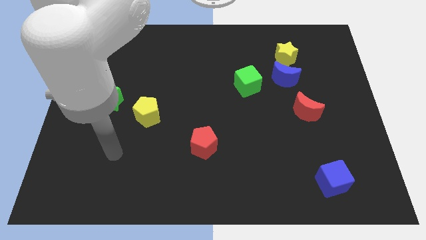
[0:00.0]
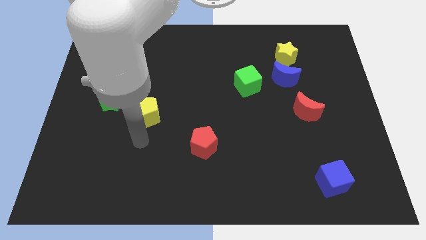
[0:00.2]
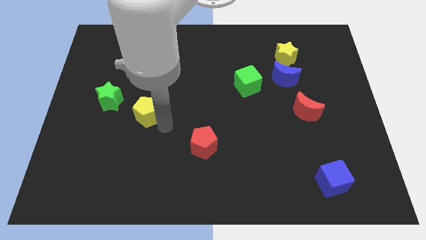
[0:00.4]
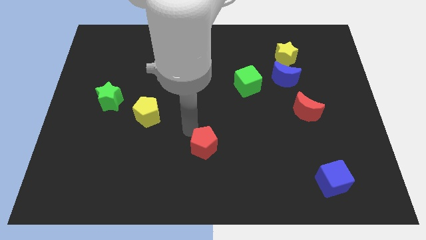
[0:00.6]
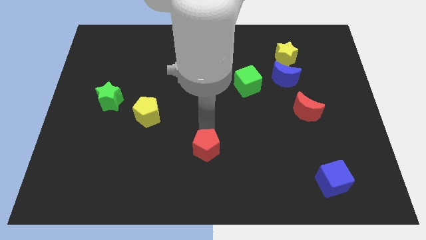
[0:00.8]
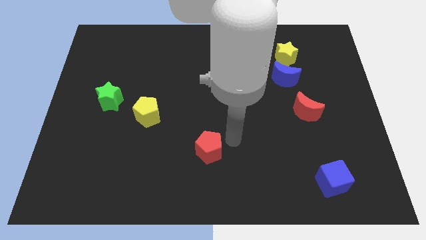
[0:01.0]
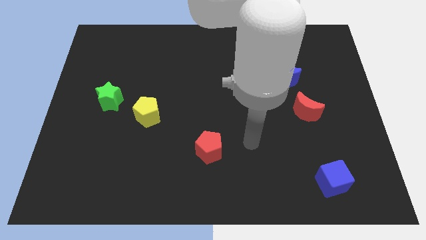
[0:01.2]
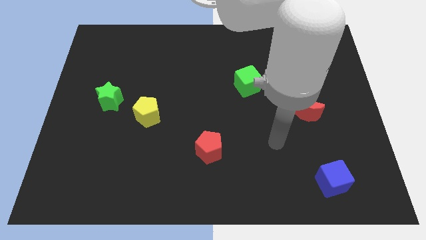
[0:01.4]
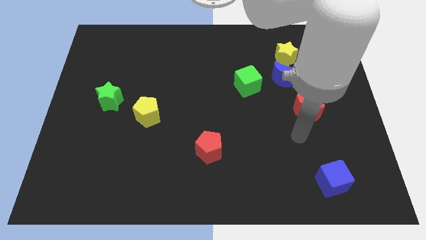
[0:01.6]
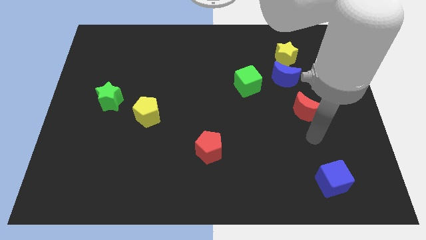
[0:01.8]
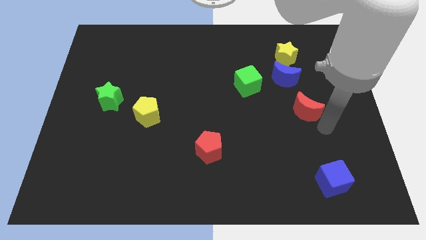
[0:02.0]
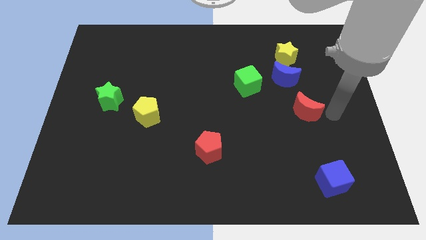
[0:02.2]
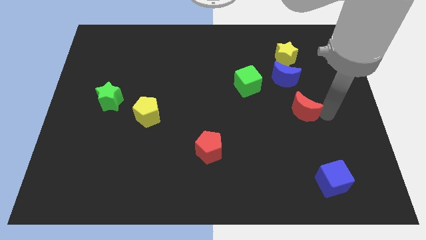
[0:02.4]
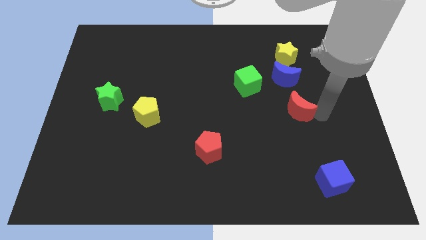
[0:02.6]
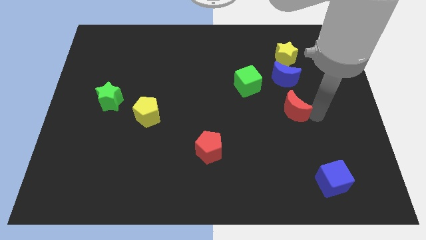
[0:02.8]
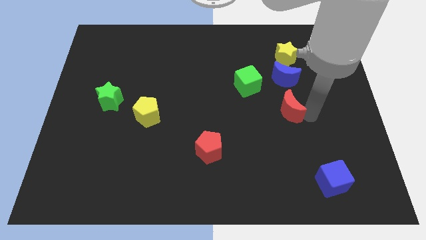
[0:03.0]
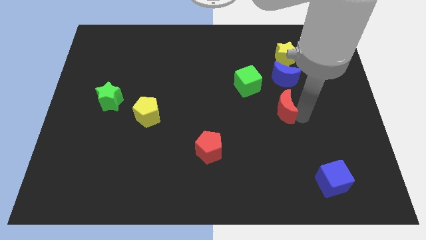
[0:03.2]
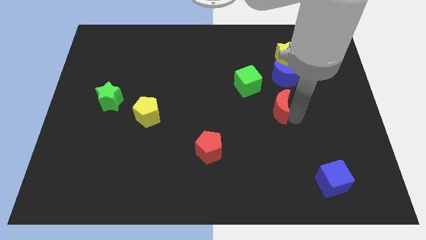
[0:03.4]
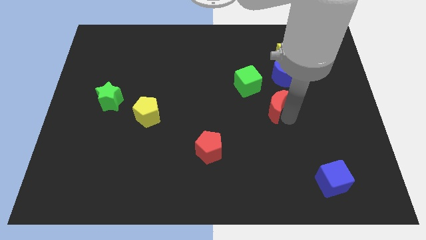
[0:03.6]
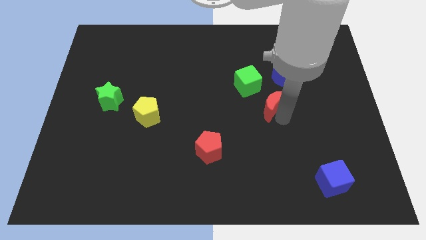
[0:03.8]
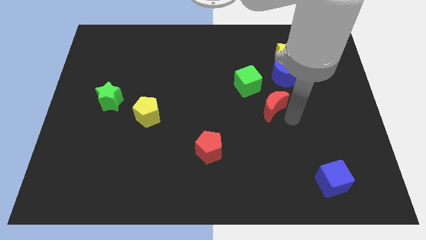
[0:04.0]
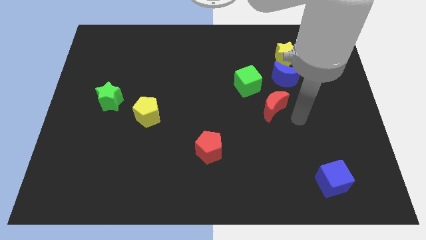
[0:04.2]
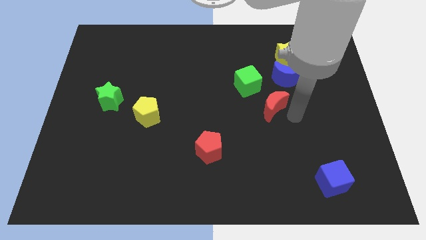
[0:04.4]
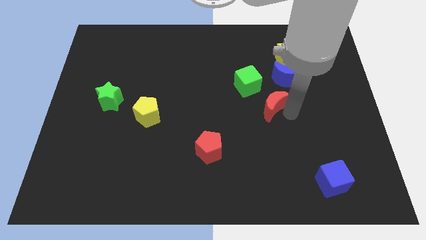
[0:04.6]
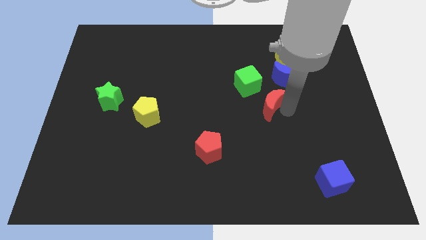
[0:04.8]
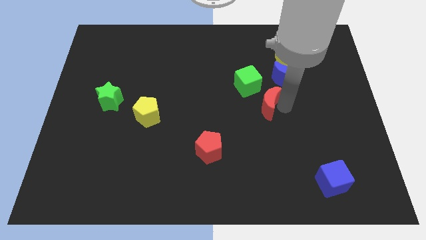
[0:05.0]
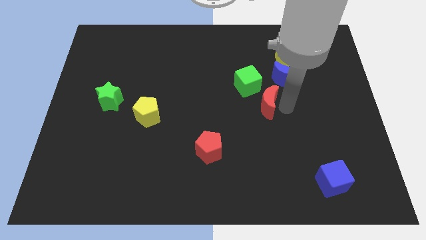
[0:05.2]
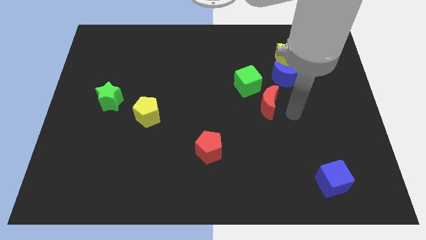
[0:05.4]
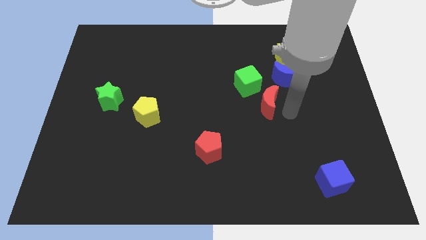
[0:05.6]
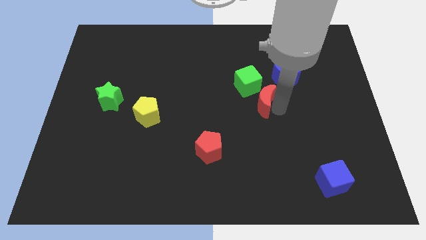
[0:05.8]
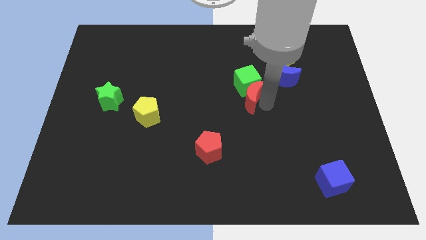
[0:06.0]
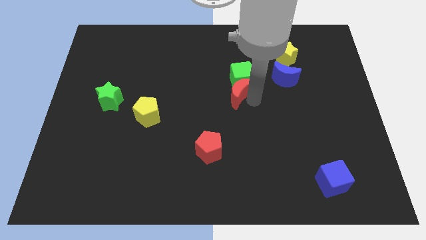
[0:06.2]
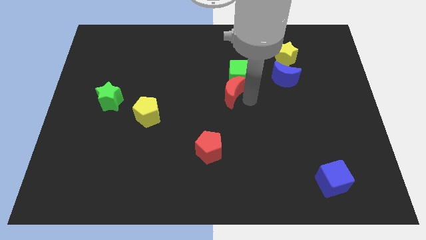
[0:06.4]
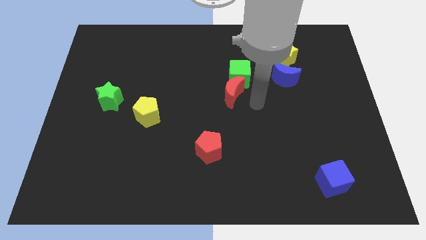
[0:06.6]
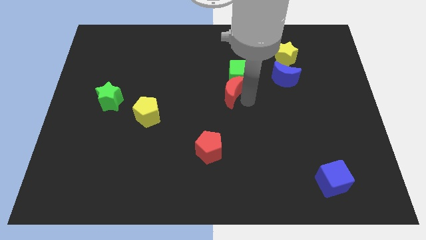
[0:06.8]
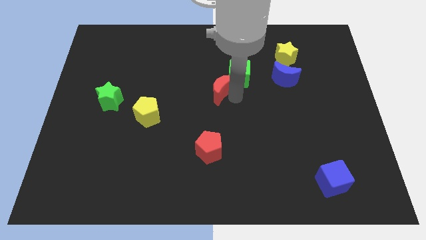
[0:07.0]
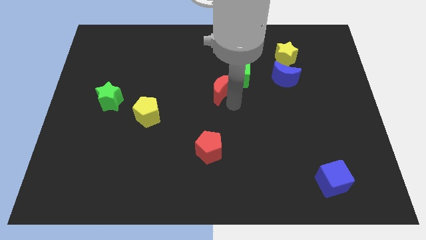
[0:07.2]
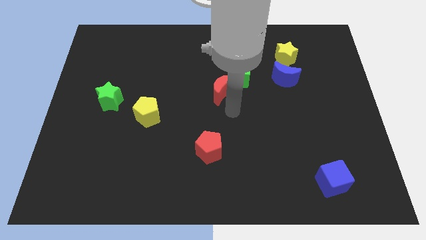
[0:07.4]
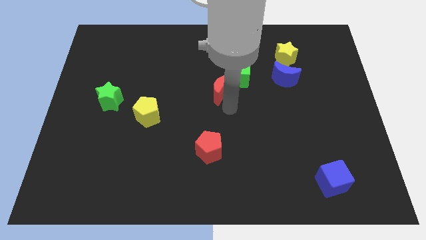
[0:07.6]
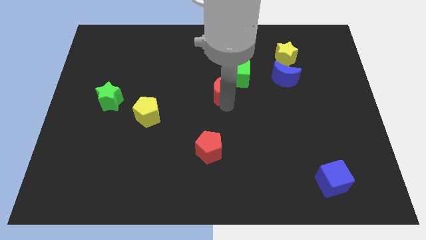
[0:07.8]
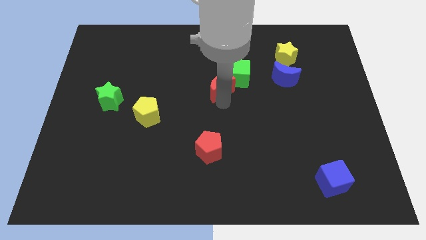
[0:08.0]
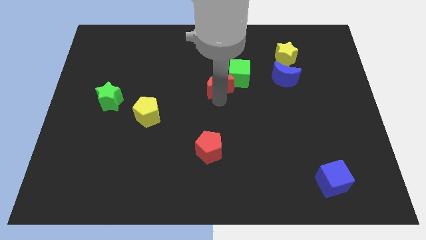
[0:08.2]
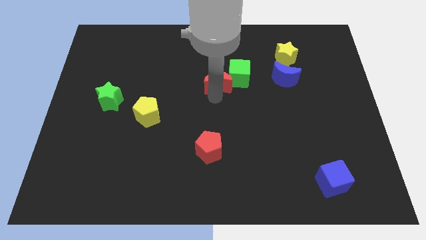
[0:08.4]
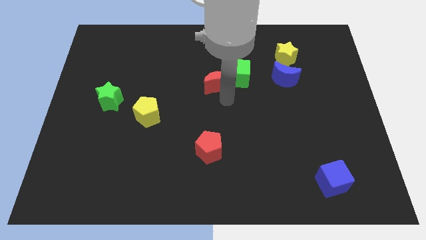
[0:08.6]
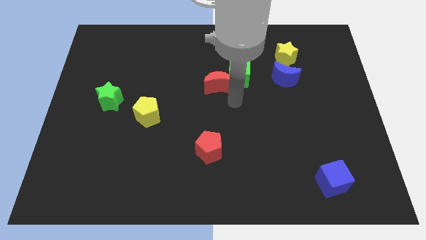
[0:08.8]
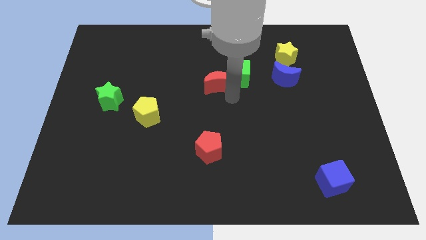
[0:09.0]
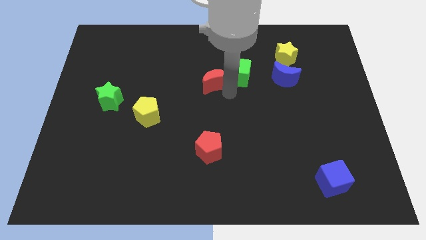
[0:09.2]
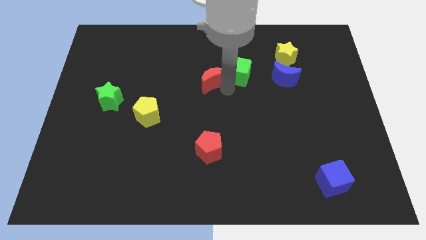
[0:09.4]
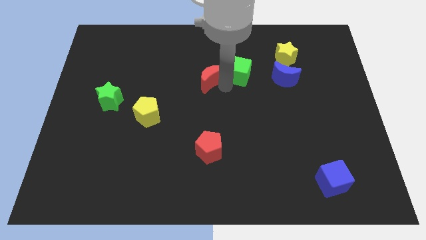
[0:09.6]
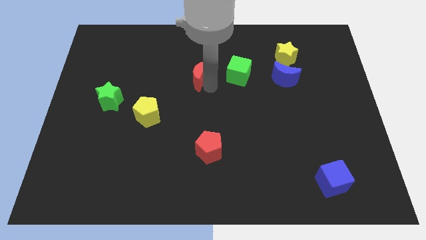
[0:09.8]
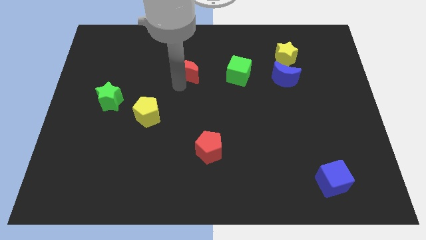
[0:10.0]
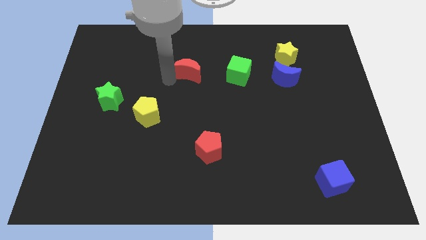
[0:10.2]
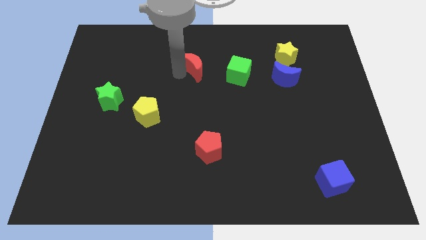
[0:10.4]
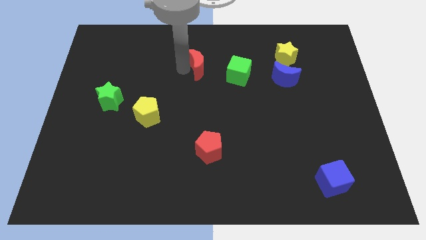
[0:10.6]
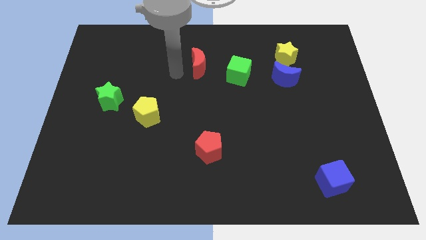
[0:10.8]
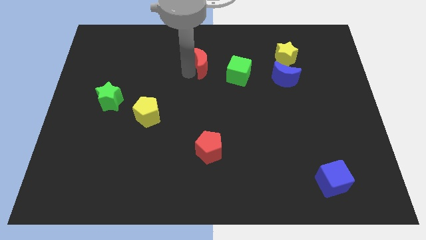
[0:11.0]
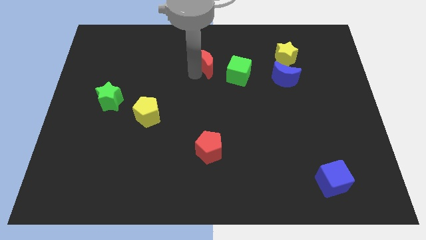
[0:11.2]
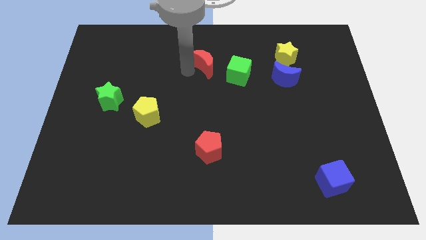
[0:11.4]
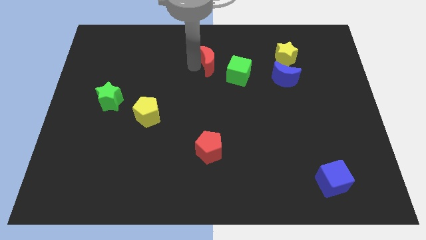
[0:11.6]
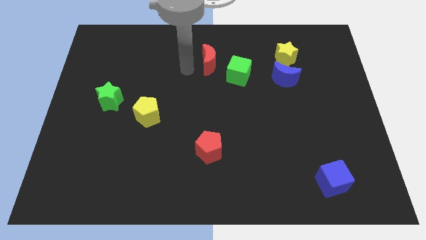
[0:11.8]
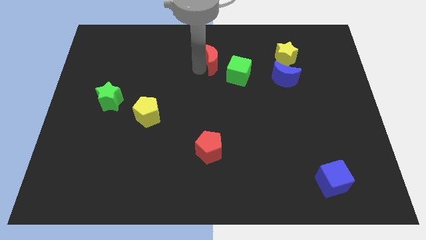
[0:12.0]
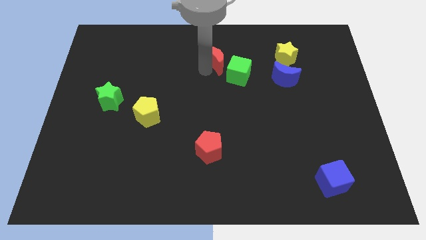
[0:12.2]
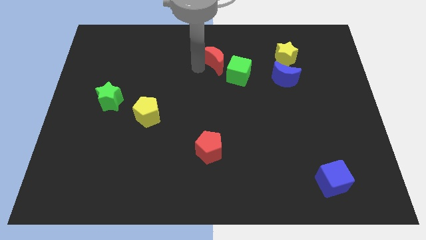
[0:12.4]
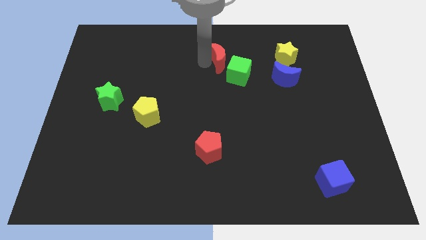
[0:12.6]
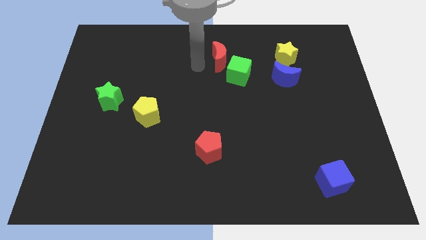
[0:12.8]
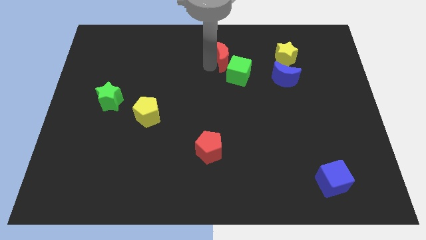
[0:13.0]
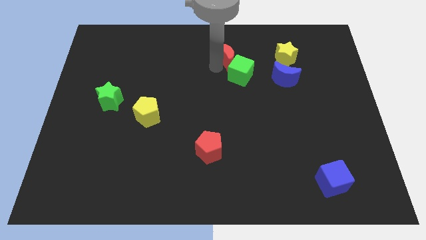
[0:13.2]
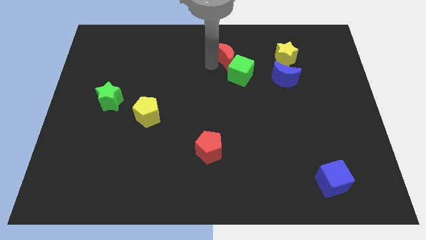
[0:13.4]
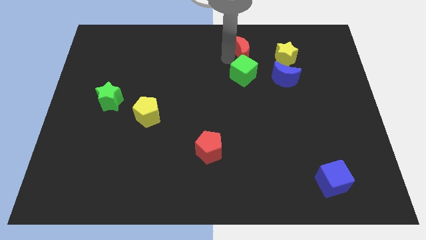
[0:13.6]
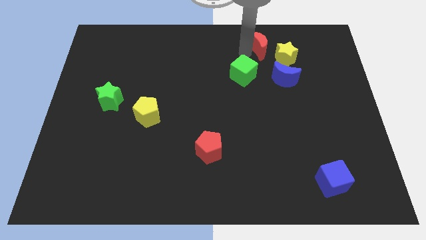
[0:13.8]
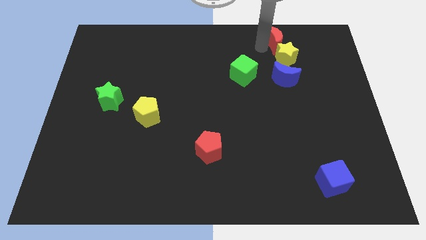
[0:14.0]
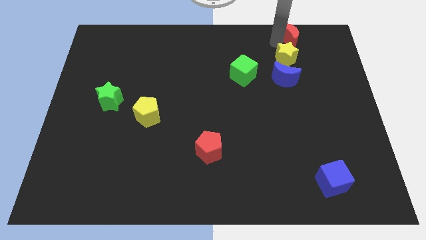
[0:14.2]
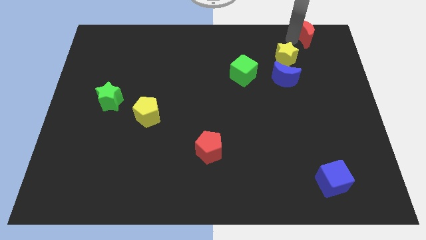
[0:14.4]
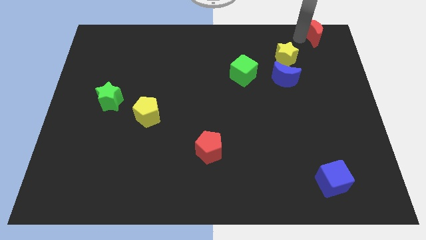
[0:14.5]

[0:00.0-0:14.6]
put the red moon to the top right corner
